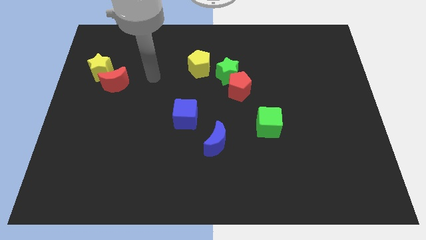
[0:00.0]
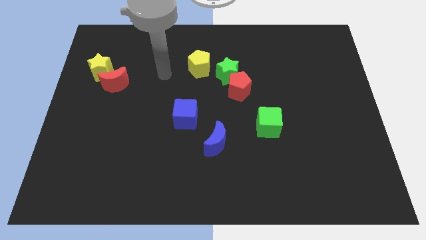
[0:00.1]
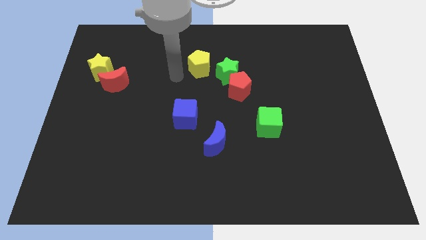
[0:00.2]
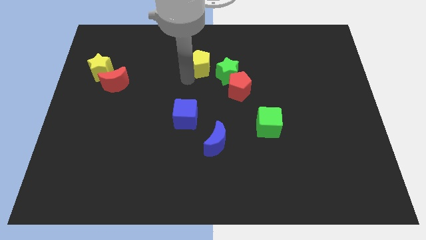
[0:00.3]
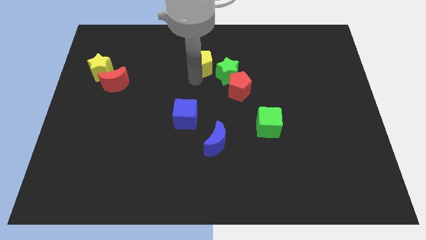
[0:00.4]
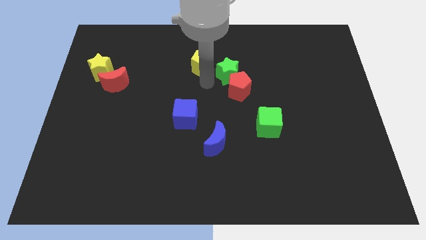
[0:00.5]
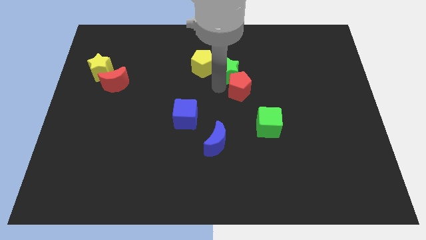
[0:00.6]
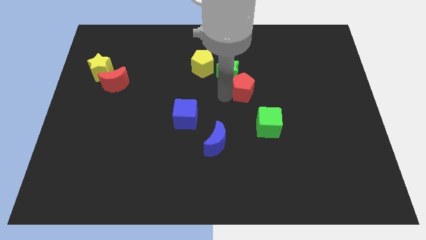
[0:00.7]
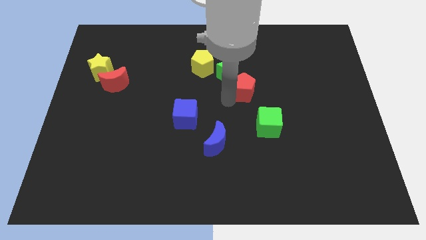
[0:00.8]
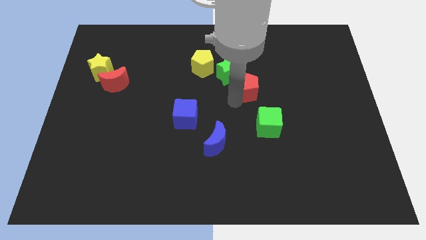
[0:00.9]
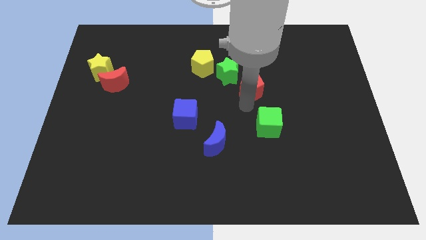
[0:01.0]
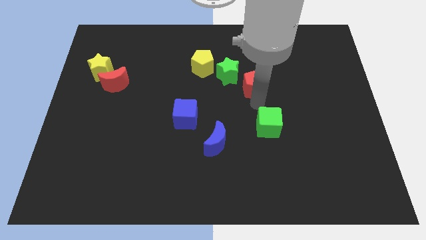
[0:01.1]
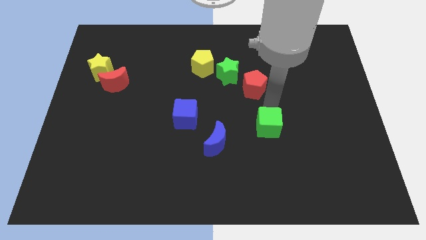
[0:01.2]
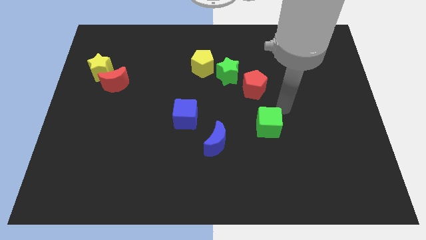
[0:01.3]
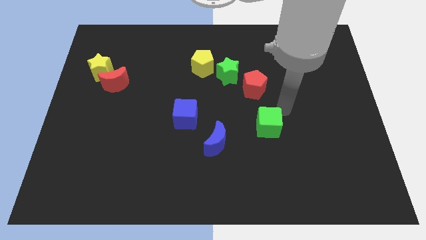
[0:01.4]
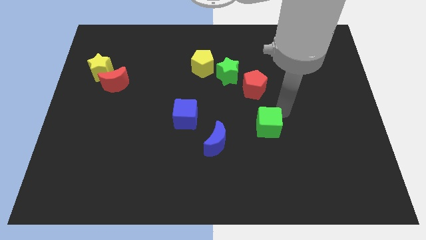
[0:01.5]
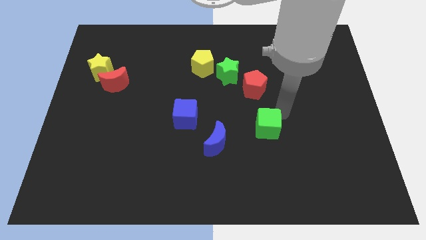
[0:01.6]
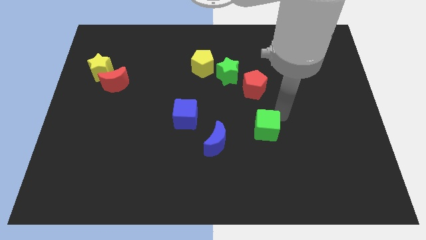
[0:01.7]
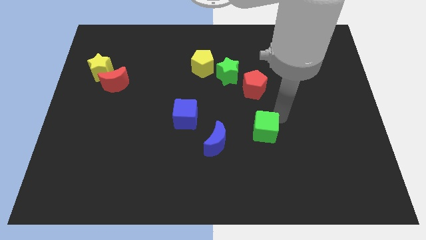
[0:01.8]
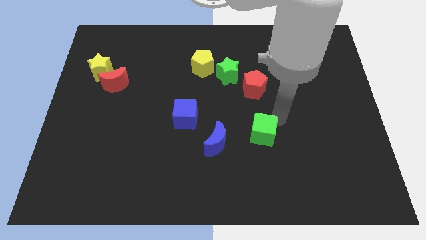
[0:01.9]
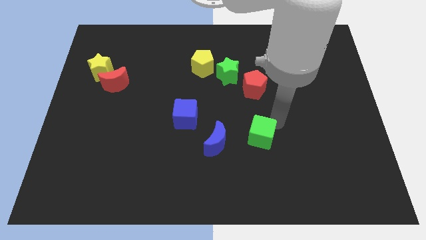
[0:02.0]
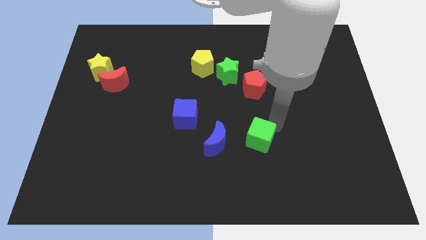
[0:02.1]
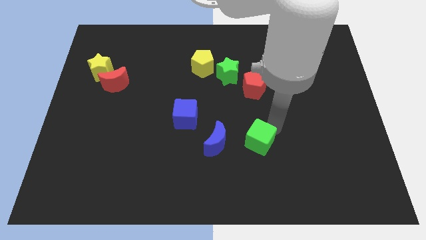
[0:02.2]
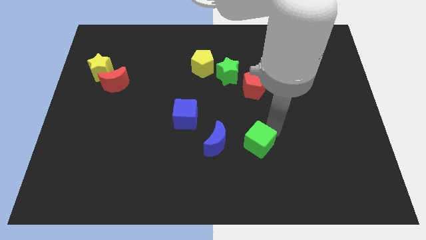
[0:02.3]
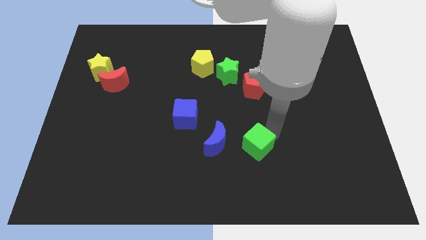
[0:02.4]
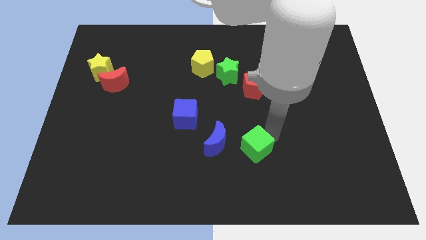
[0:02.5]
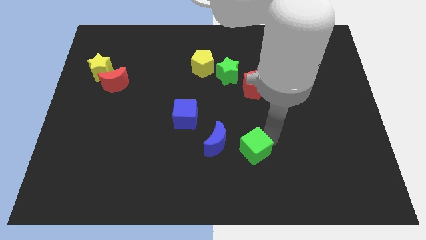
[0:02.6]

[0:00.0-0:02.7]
push the green cube down and left diagonally a little bit

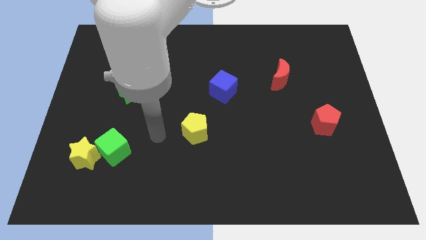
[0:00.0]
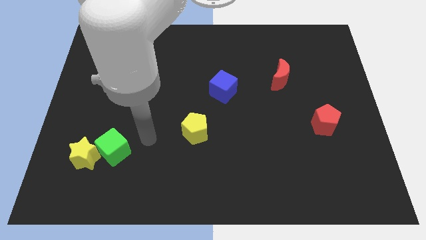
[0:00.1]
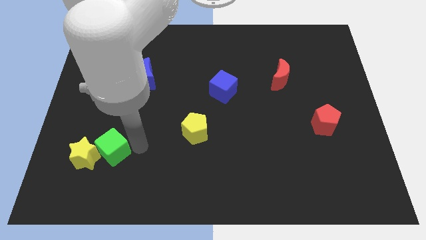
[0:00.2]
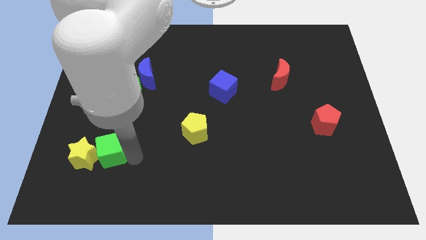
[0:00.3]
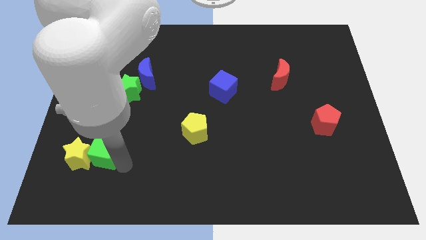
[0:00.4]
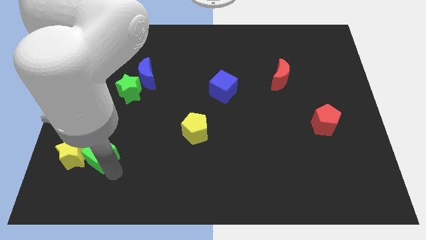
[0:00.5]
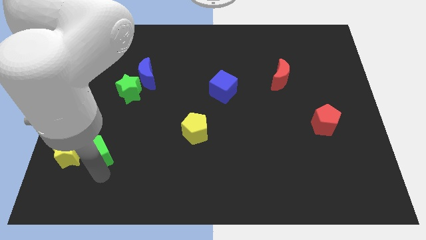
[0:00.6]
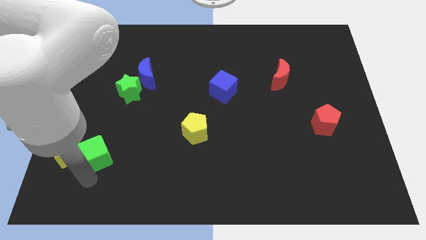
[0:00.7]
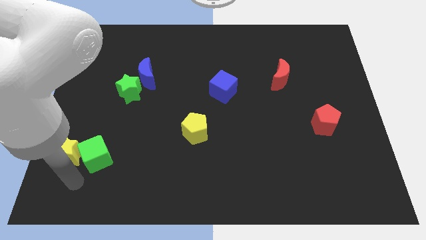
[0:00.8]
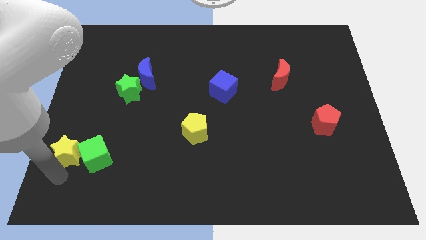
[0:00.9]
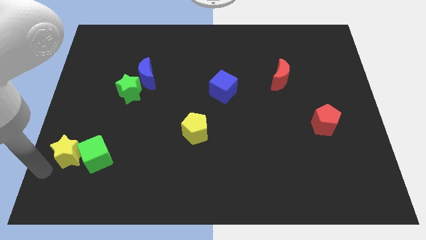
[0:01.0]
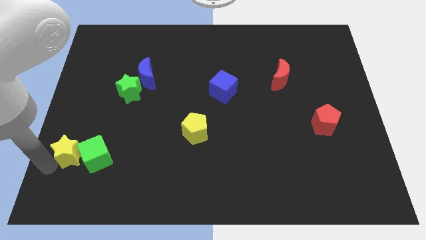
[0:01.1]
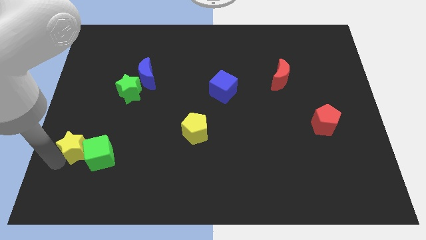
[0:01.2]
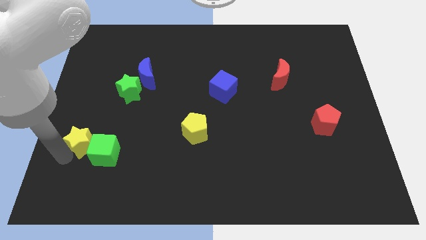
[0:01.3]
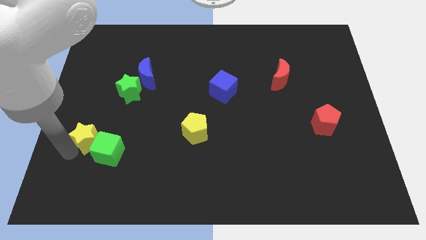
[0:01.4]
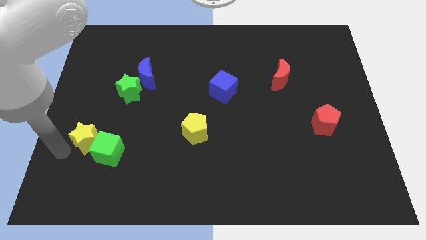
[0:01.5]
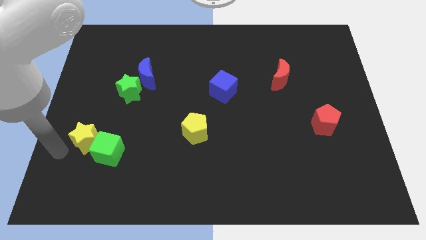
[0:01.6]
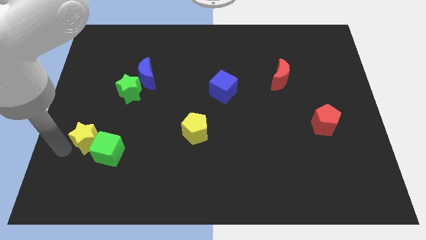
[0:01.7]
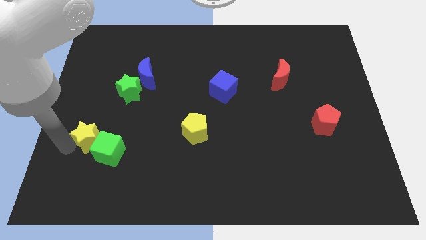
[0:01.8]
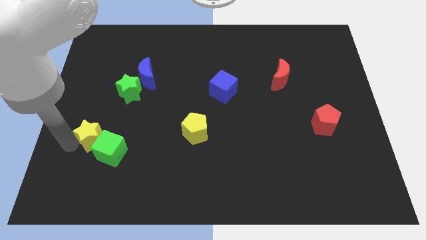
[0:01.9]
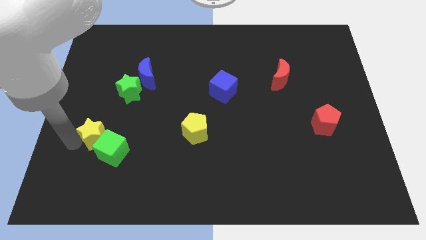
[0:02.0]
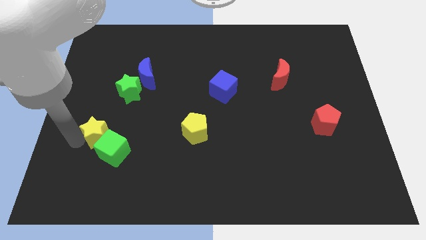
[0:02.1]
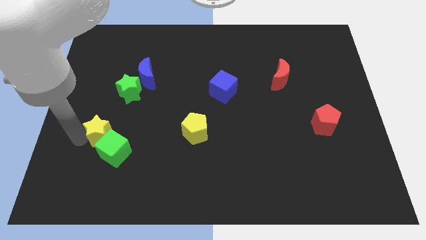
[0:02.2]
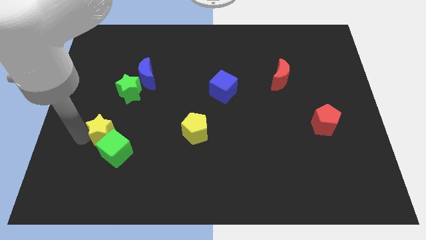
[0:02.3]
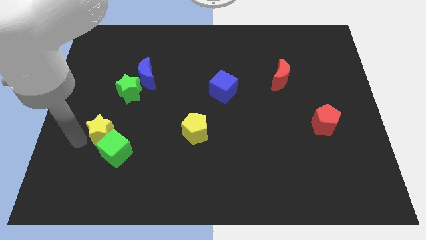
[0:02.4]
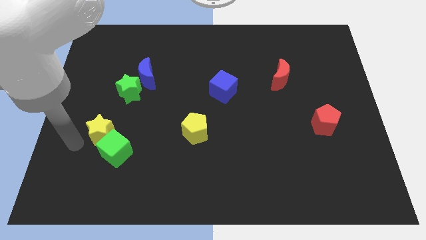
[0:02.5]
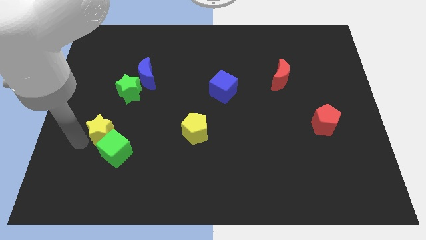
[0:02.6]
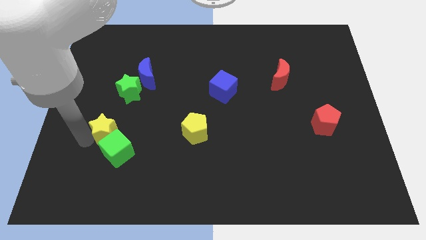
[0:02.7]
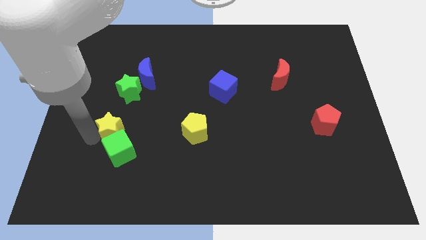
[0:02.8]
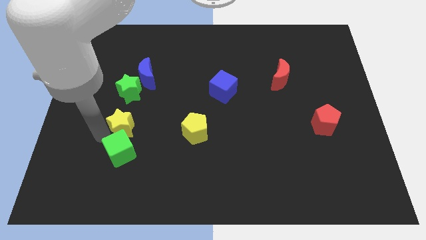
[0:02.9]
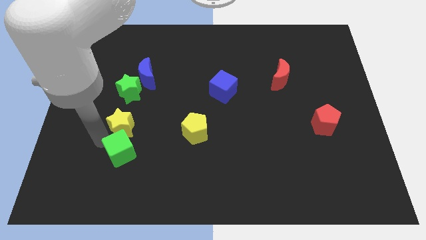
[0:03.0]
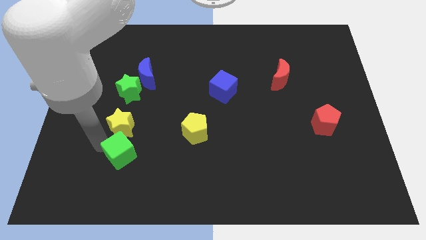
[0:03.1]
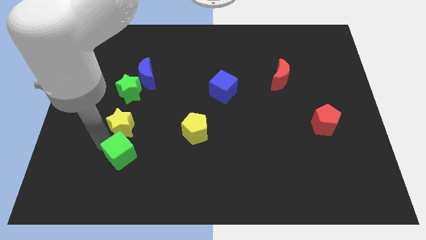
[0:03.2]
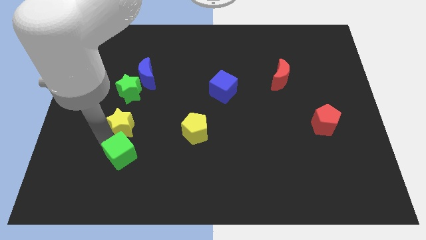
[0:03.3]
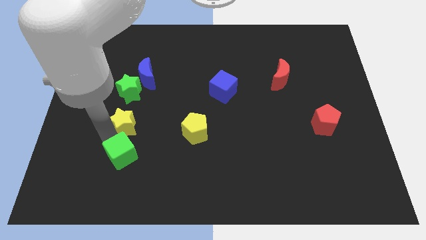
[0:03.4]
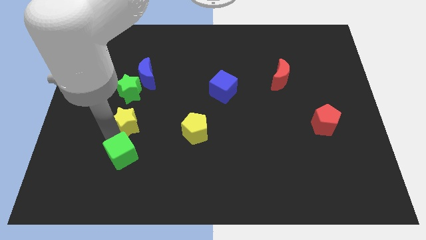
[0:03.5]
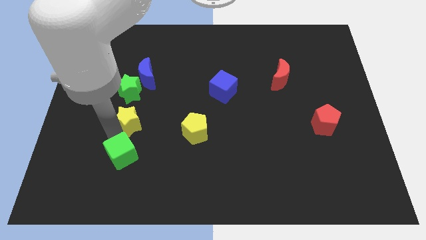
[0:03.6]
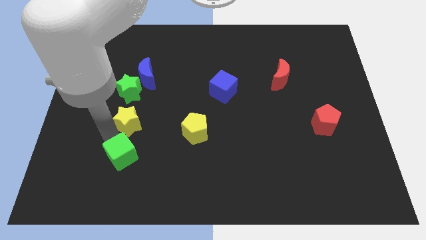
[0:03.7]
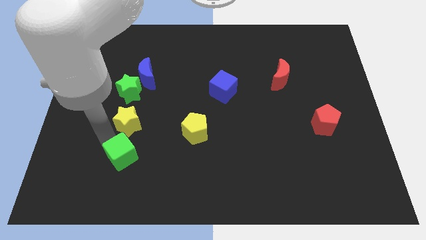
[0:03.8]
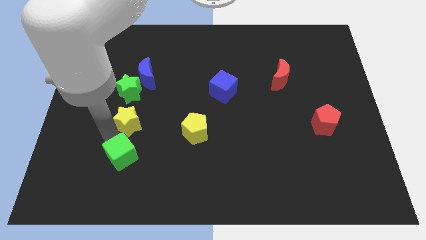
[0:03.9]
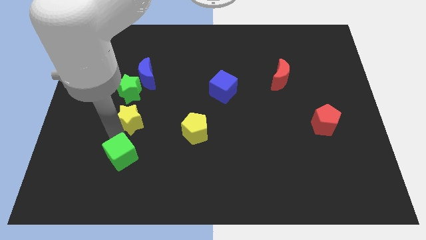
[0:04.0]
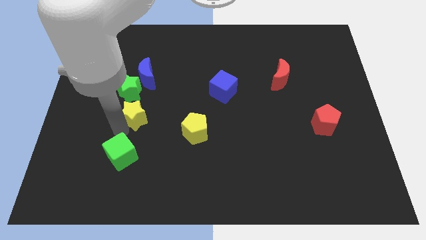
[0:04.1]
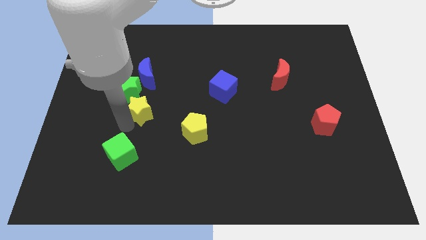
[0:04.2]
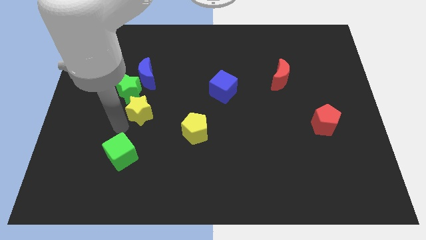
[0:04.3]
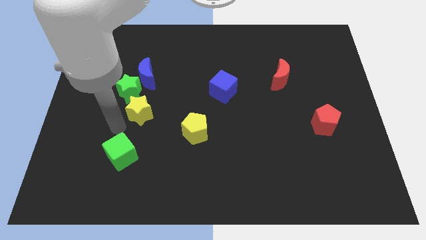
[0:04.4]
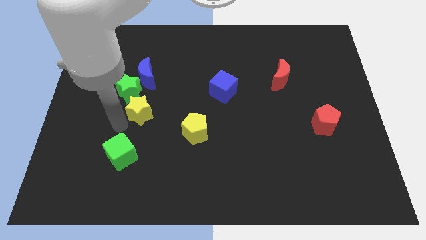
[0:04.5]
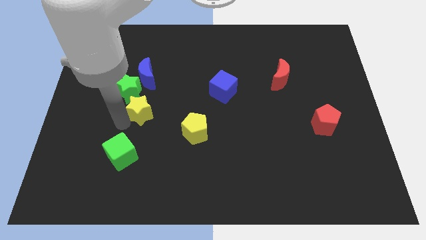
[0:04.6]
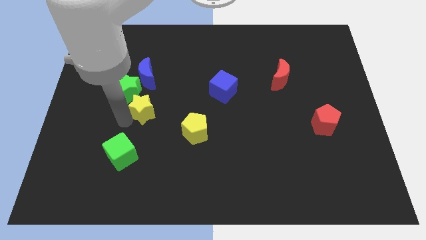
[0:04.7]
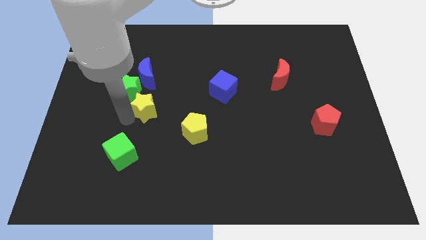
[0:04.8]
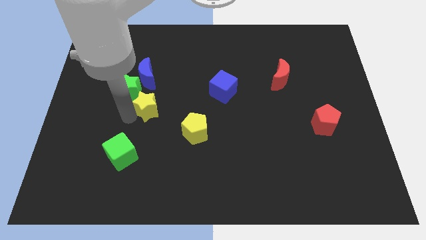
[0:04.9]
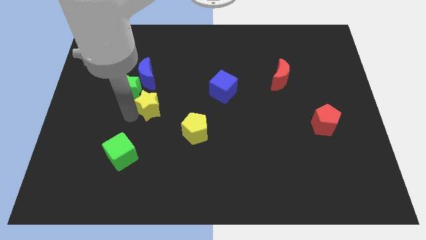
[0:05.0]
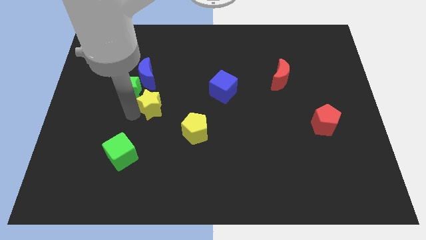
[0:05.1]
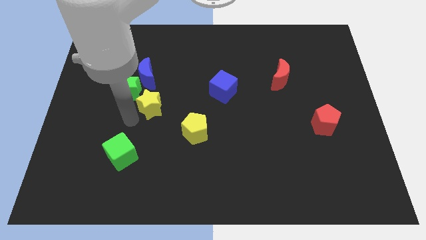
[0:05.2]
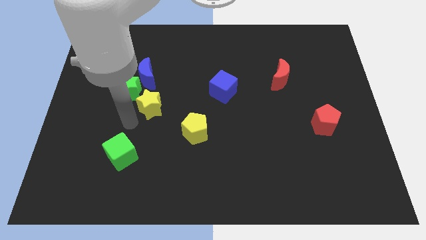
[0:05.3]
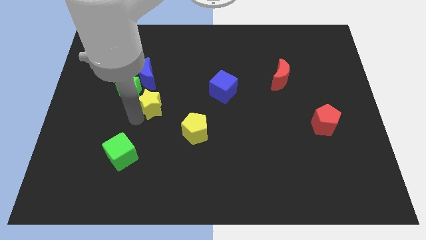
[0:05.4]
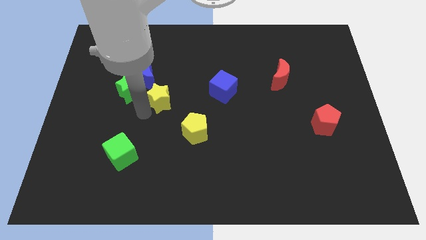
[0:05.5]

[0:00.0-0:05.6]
move the yellow star up and to the right diagonally
